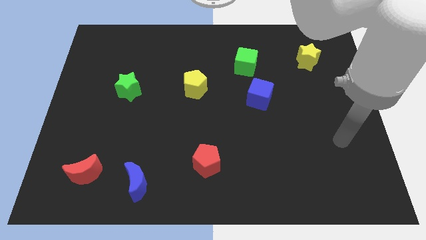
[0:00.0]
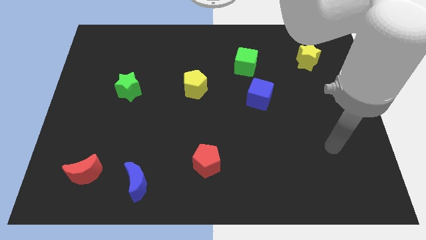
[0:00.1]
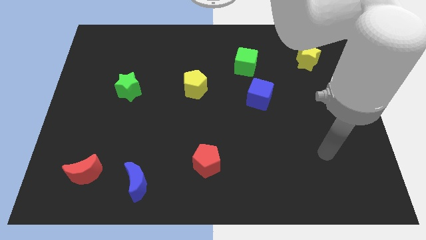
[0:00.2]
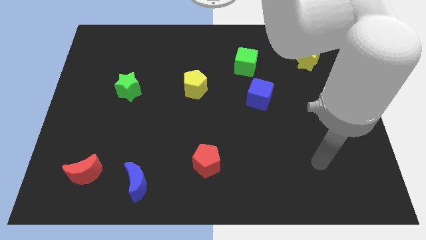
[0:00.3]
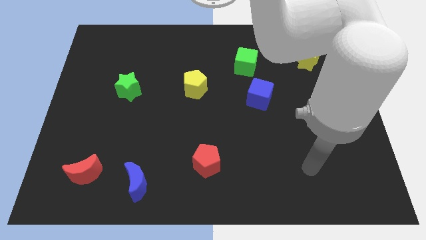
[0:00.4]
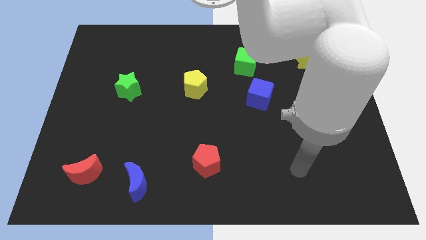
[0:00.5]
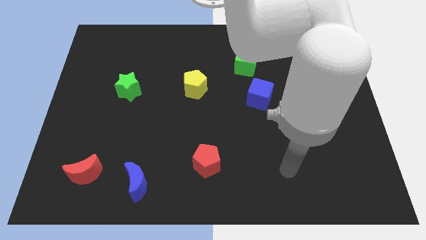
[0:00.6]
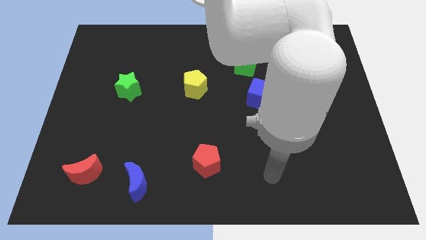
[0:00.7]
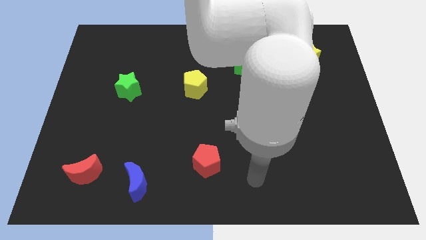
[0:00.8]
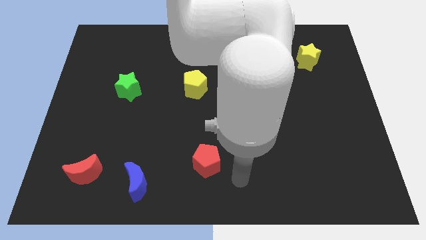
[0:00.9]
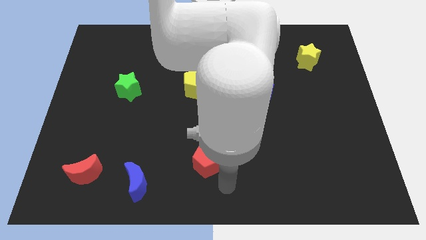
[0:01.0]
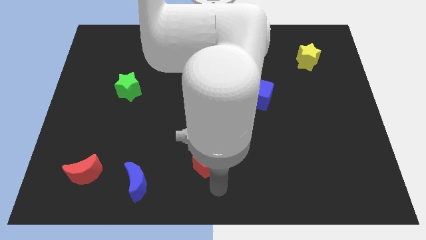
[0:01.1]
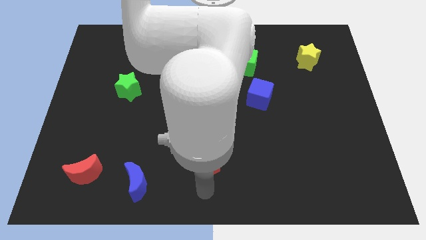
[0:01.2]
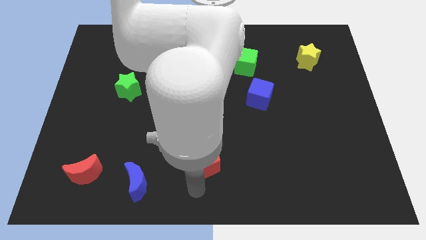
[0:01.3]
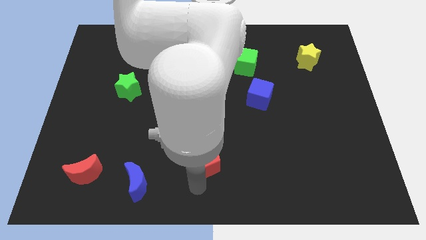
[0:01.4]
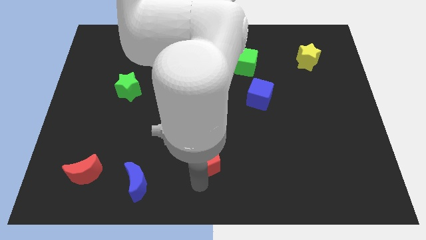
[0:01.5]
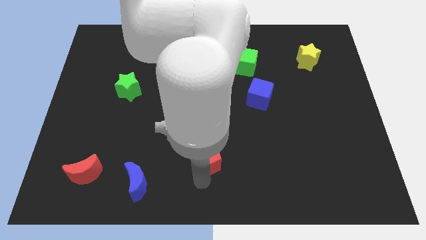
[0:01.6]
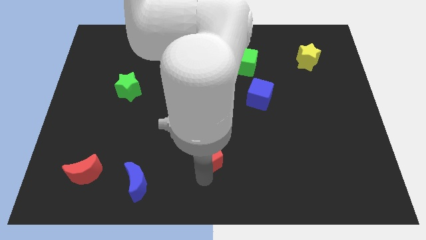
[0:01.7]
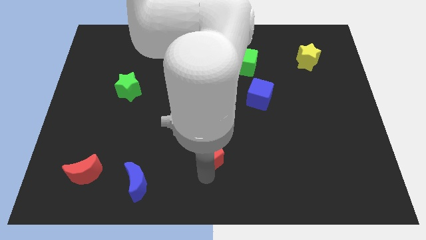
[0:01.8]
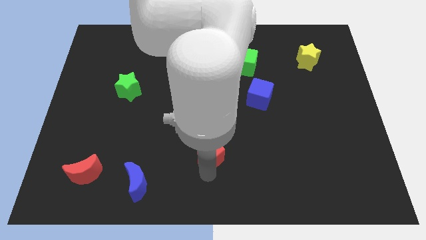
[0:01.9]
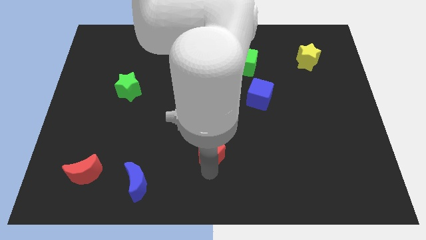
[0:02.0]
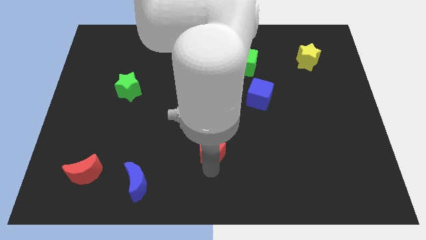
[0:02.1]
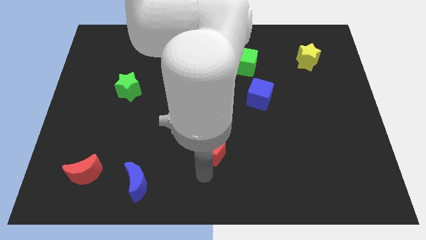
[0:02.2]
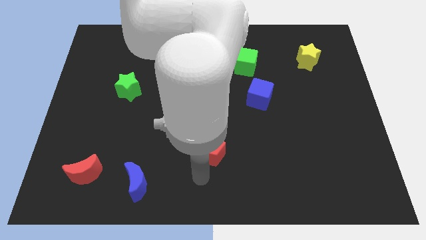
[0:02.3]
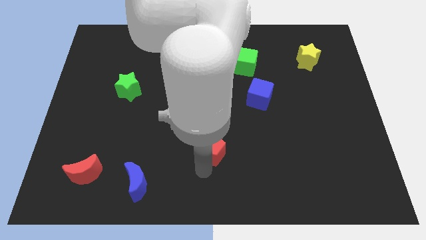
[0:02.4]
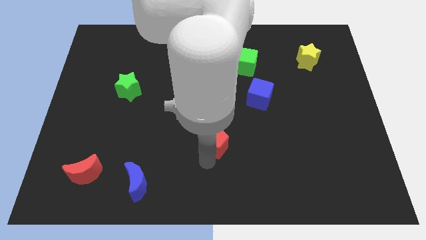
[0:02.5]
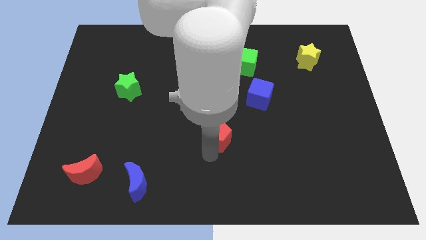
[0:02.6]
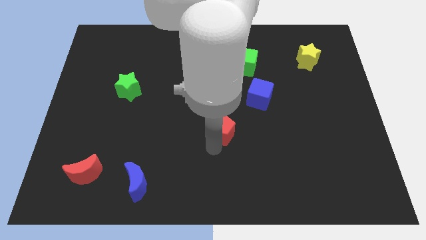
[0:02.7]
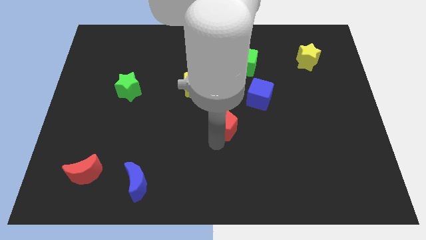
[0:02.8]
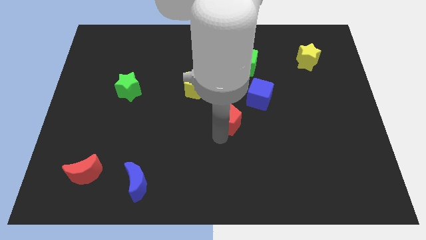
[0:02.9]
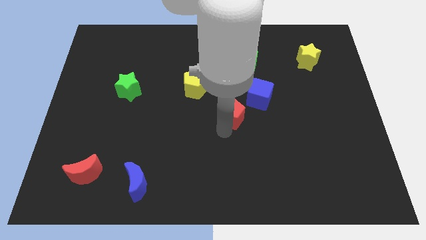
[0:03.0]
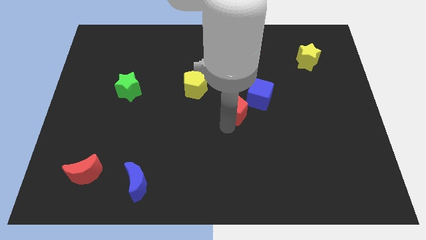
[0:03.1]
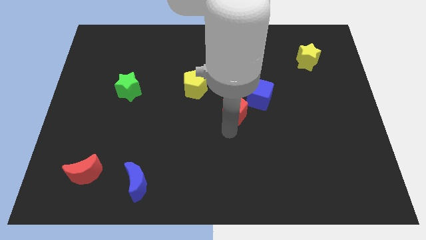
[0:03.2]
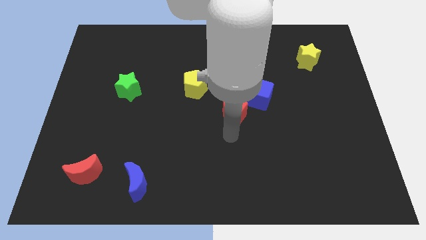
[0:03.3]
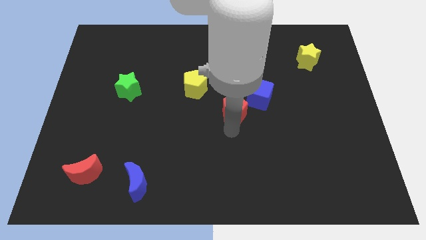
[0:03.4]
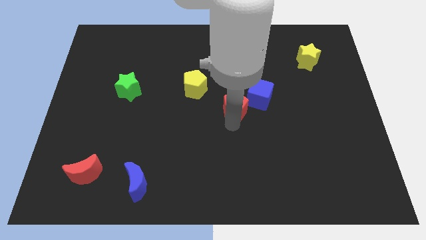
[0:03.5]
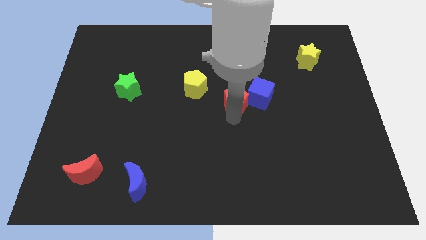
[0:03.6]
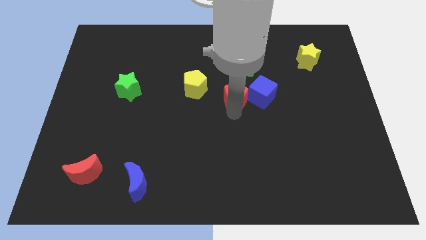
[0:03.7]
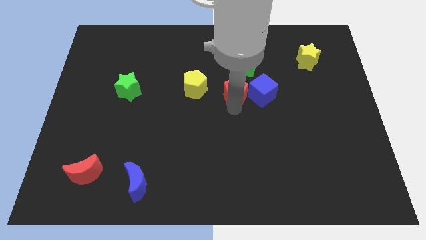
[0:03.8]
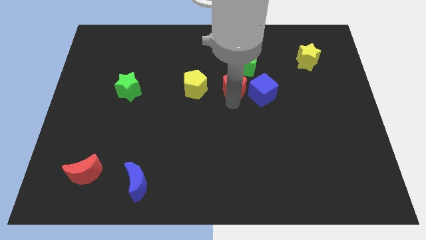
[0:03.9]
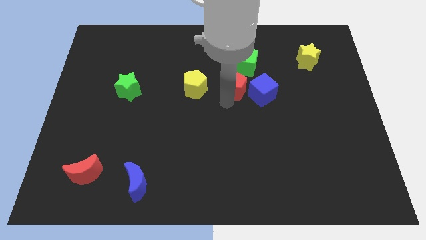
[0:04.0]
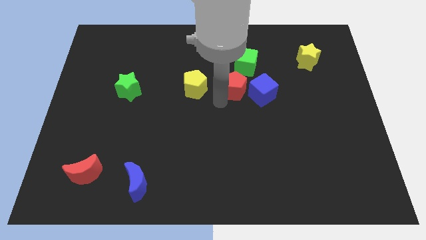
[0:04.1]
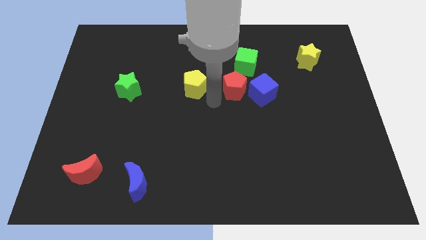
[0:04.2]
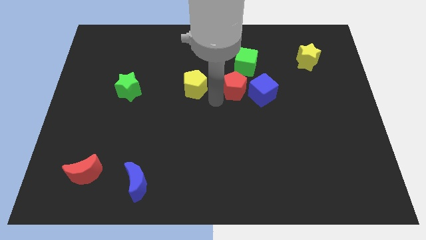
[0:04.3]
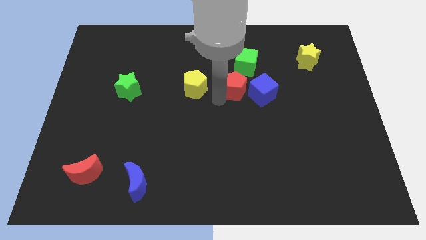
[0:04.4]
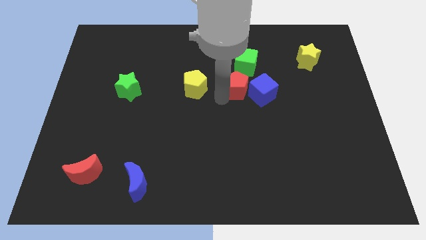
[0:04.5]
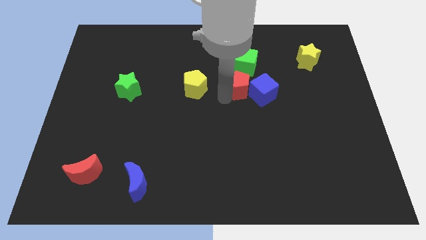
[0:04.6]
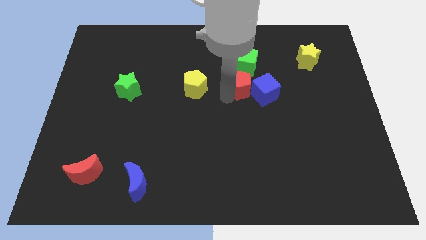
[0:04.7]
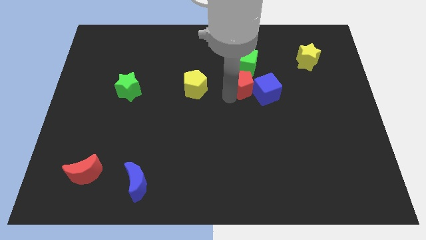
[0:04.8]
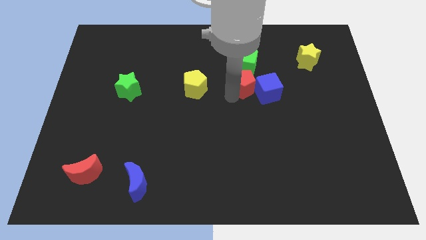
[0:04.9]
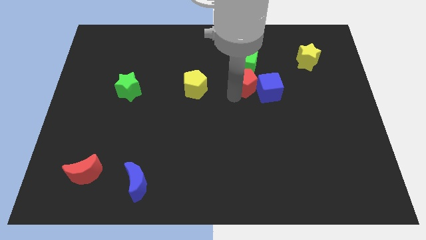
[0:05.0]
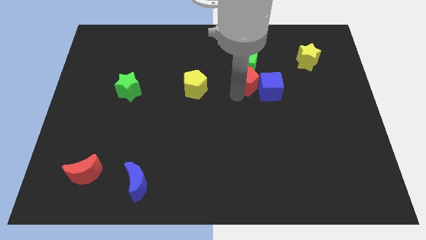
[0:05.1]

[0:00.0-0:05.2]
push the red pentagon diagonally down and to the right of the green cube

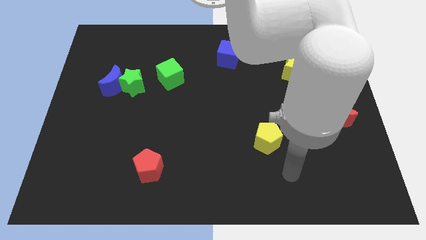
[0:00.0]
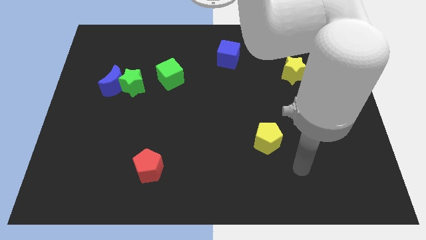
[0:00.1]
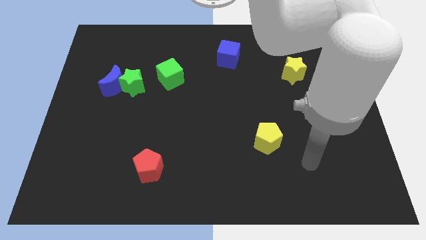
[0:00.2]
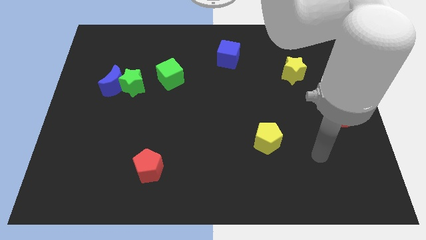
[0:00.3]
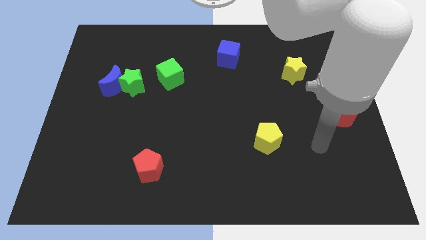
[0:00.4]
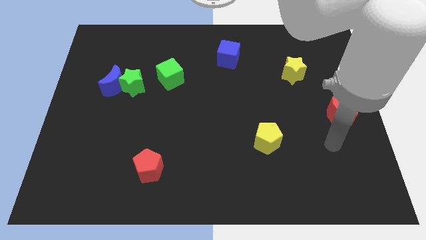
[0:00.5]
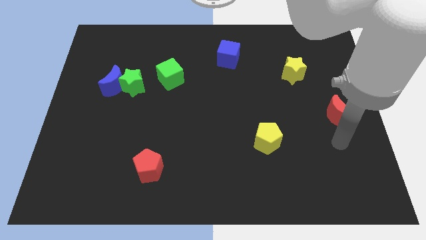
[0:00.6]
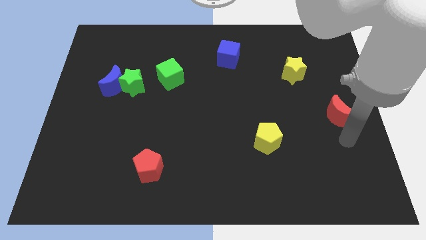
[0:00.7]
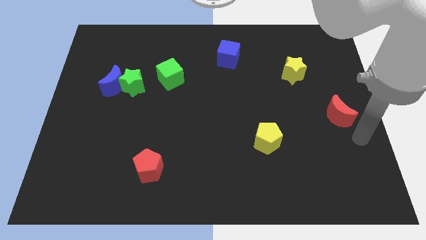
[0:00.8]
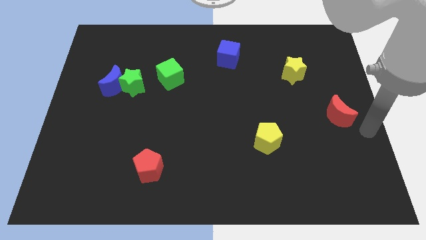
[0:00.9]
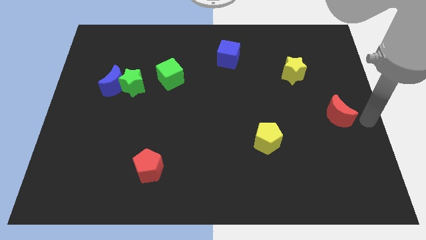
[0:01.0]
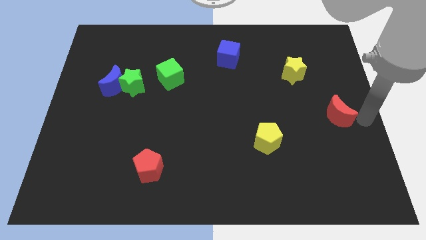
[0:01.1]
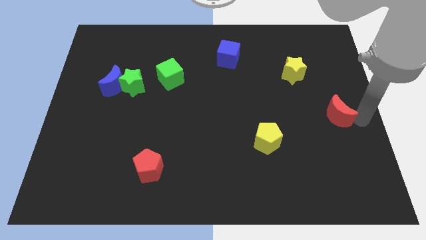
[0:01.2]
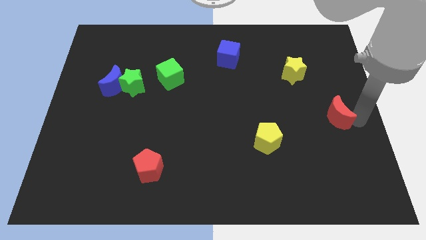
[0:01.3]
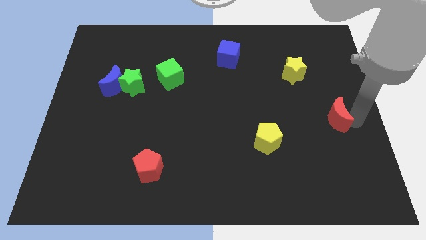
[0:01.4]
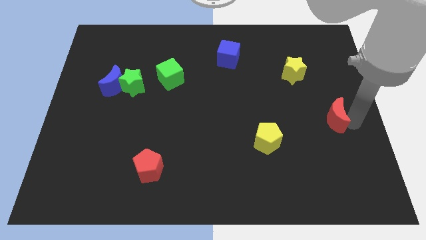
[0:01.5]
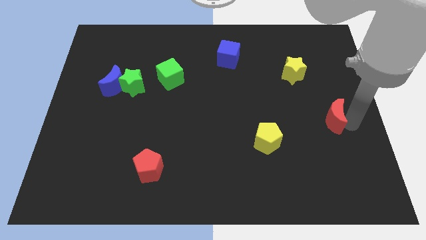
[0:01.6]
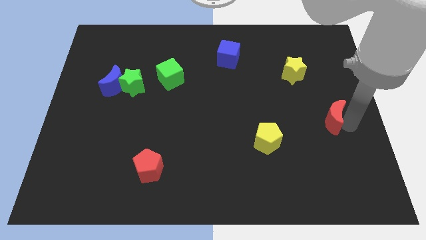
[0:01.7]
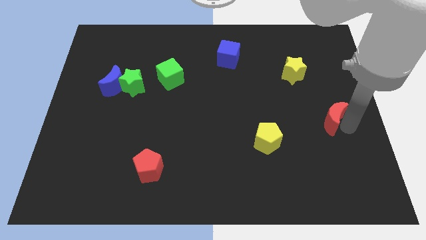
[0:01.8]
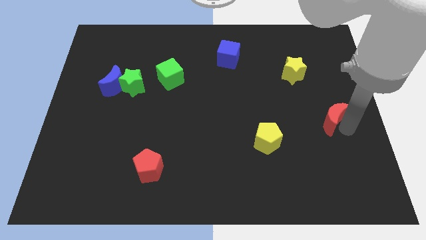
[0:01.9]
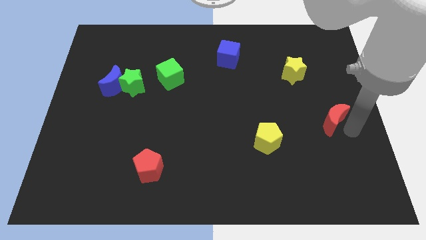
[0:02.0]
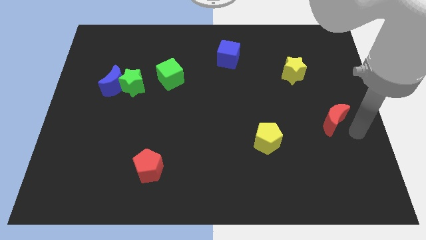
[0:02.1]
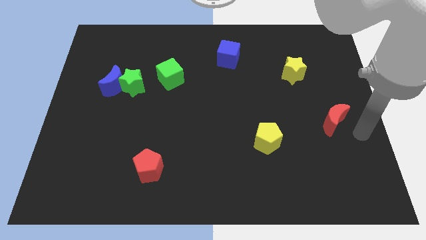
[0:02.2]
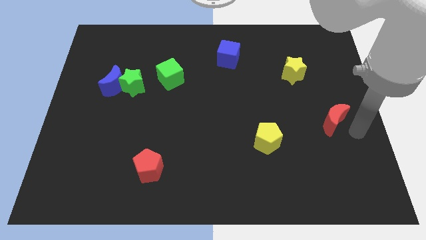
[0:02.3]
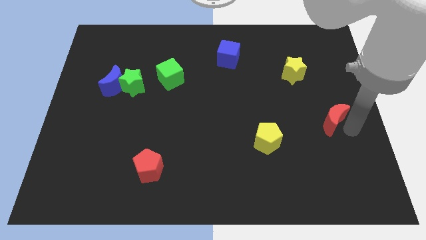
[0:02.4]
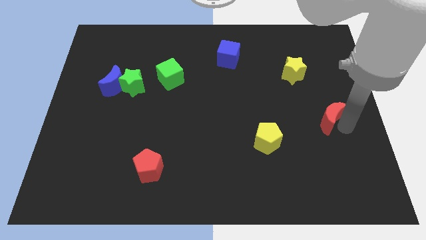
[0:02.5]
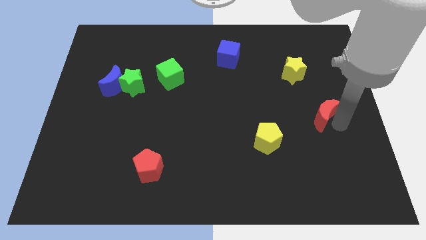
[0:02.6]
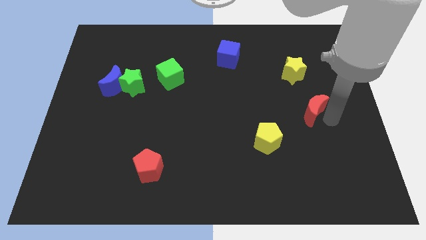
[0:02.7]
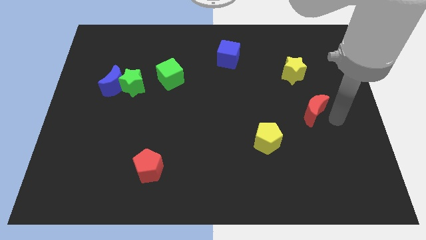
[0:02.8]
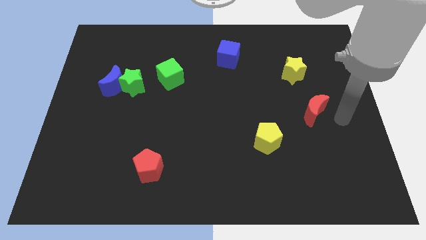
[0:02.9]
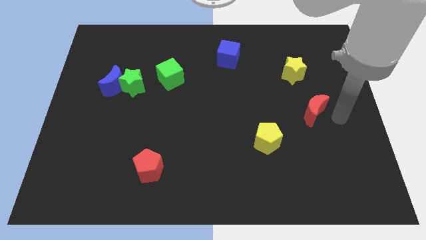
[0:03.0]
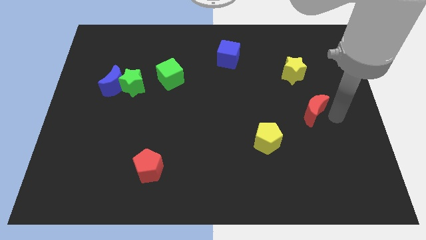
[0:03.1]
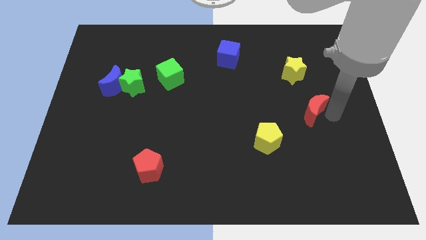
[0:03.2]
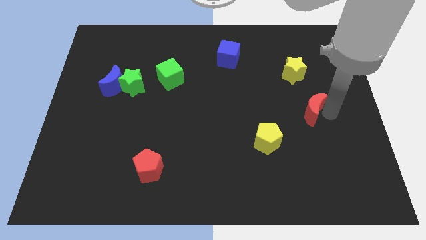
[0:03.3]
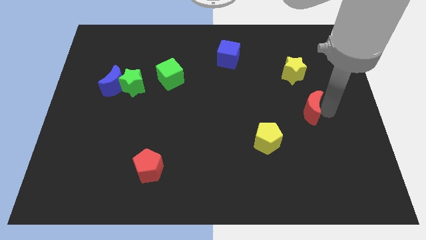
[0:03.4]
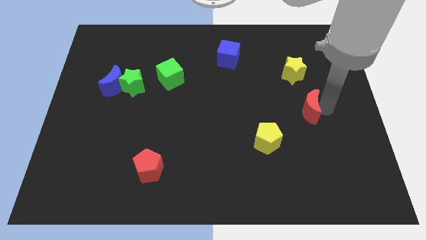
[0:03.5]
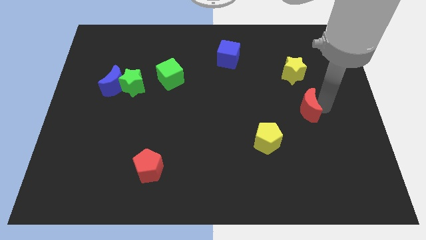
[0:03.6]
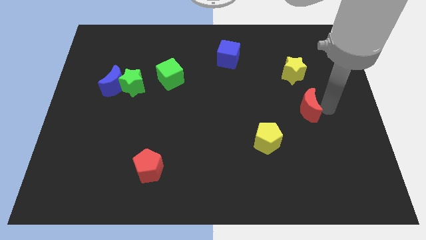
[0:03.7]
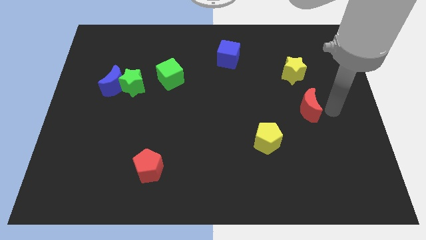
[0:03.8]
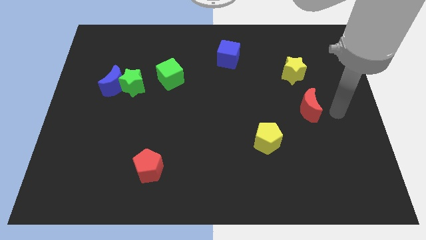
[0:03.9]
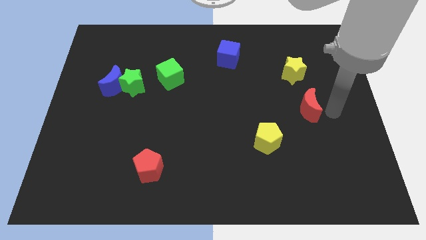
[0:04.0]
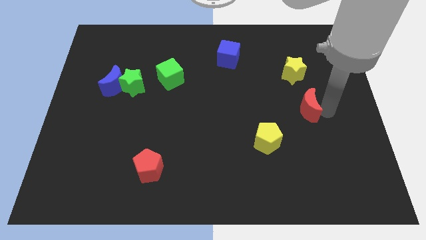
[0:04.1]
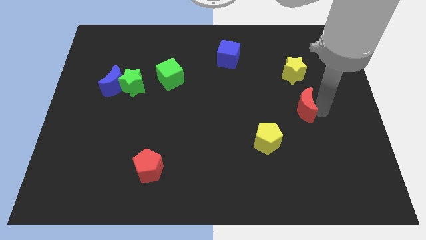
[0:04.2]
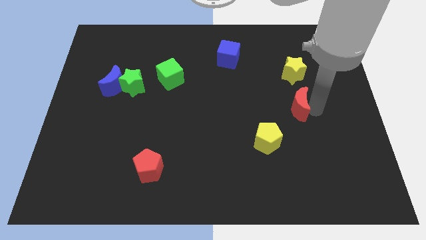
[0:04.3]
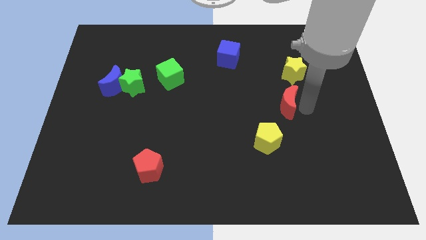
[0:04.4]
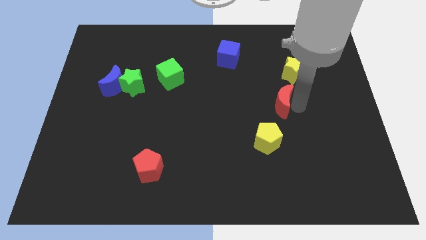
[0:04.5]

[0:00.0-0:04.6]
put the red moon to the top side of the yellow pentagon
